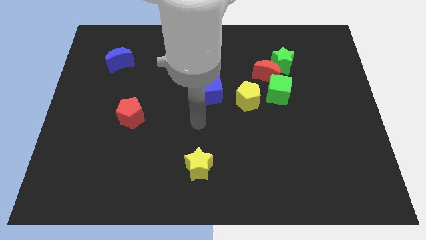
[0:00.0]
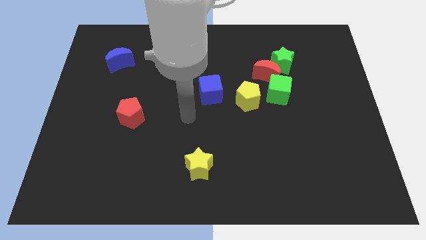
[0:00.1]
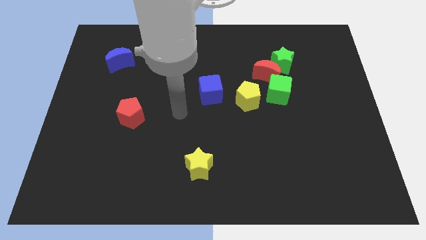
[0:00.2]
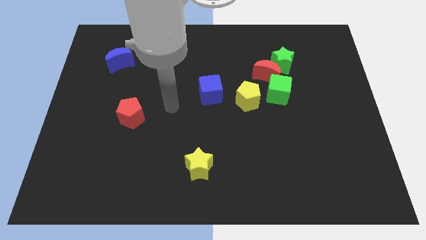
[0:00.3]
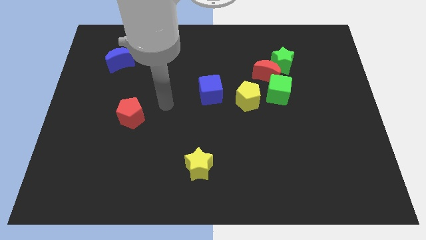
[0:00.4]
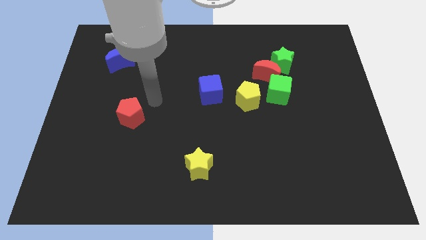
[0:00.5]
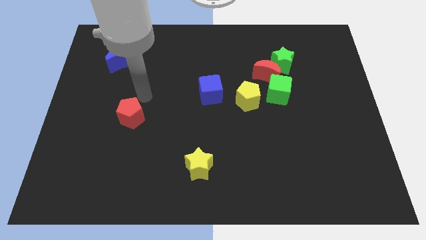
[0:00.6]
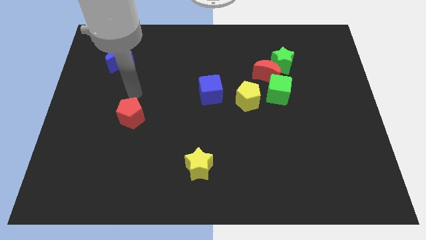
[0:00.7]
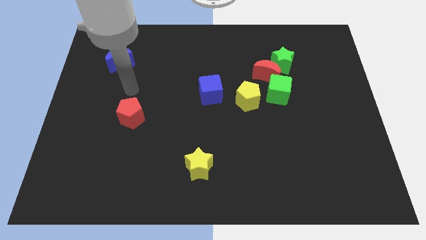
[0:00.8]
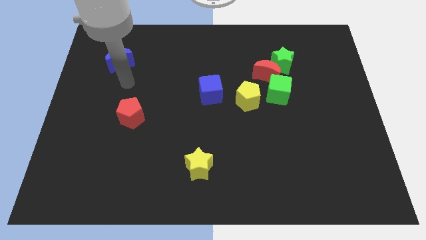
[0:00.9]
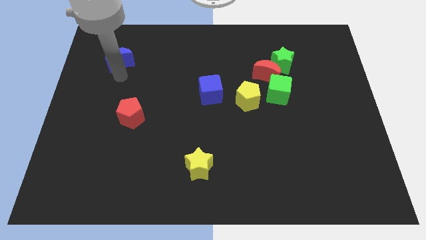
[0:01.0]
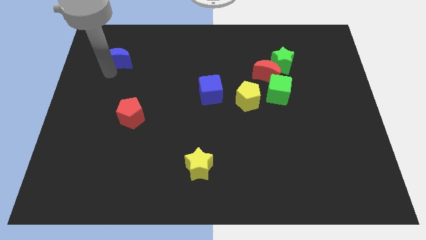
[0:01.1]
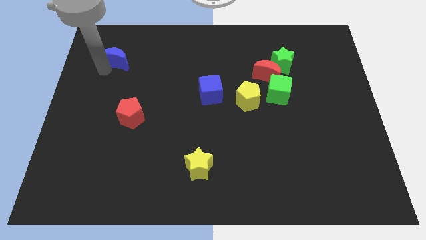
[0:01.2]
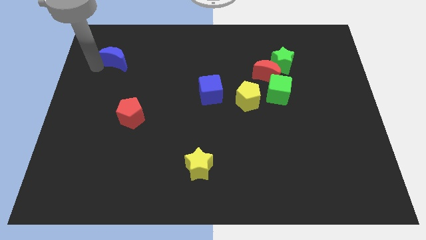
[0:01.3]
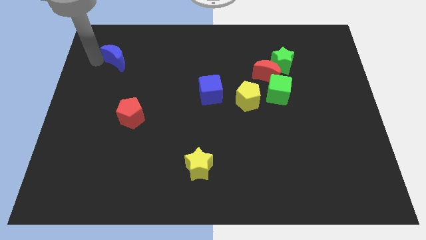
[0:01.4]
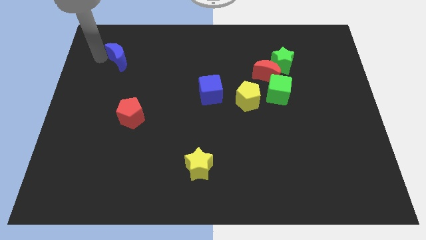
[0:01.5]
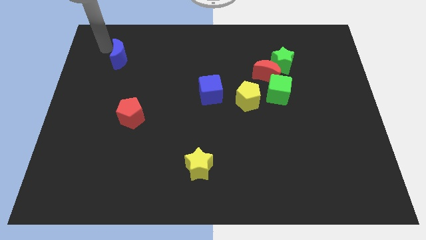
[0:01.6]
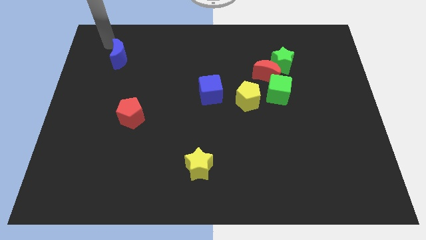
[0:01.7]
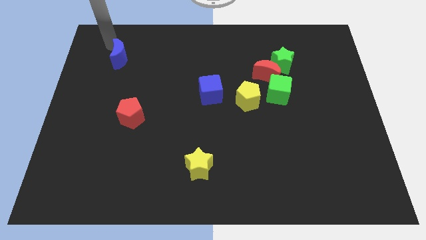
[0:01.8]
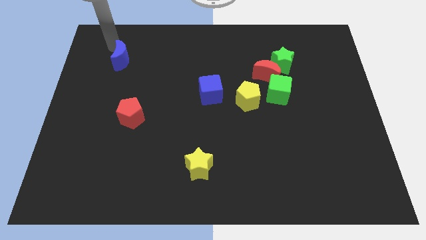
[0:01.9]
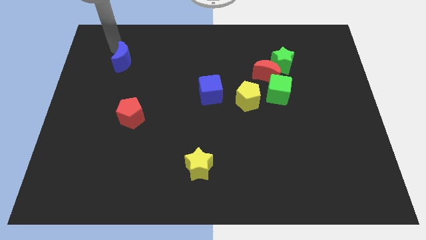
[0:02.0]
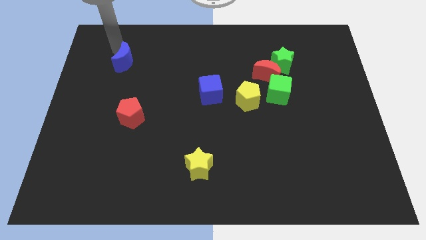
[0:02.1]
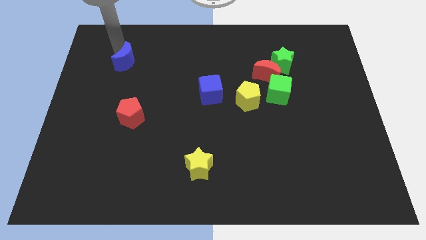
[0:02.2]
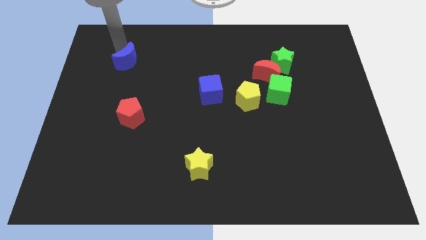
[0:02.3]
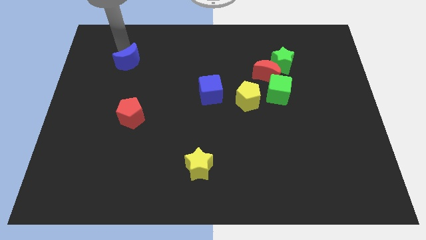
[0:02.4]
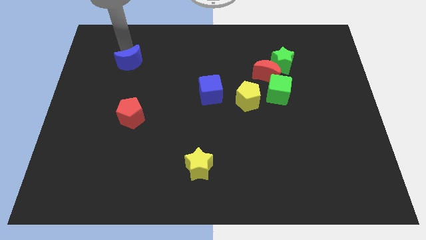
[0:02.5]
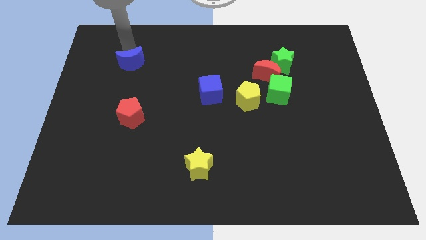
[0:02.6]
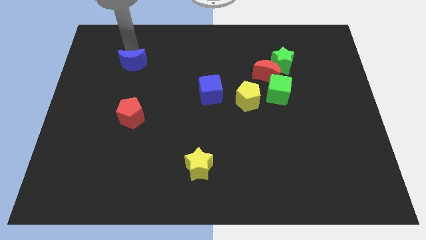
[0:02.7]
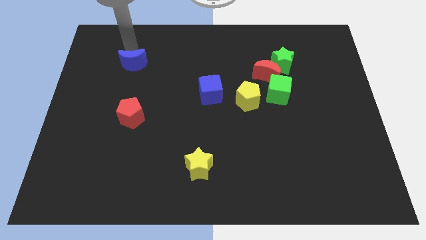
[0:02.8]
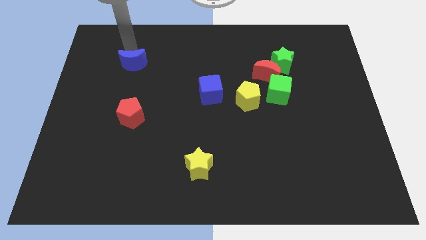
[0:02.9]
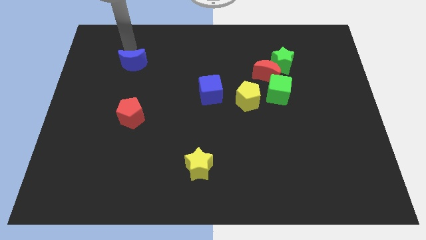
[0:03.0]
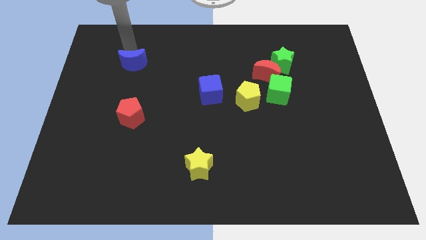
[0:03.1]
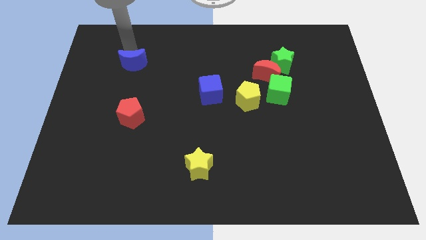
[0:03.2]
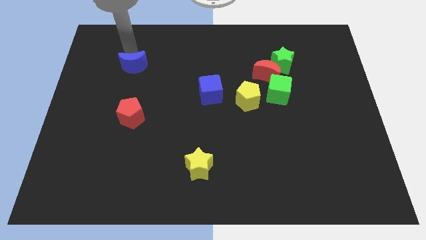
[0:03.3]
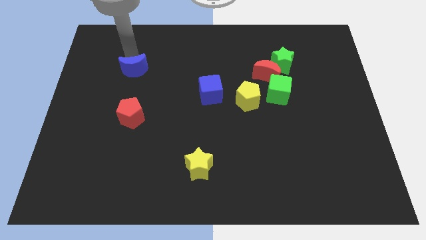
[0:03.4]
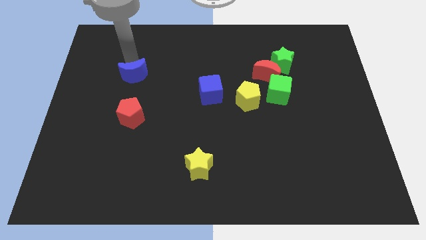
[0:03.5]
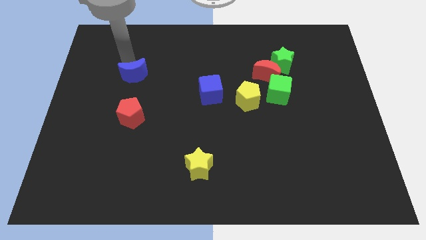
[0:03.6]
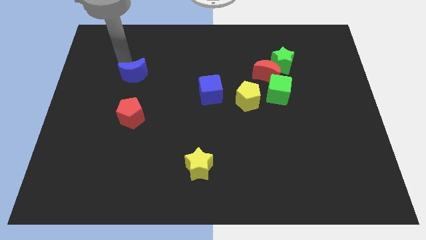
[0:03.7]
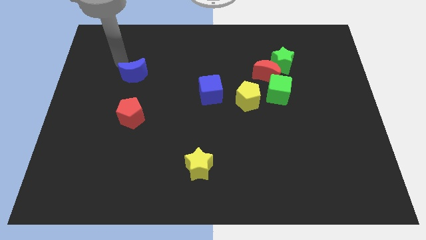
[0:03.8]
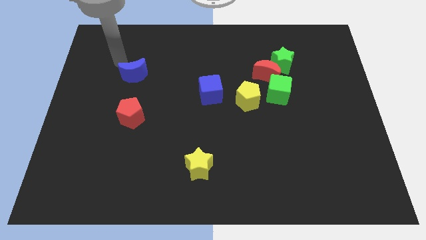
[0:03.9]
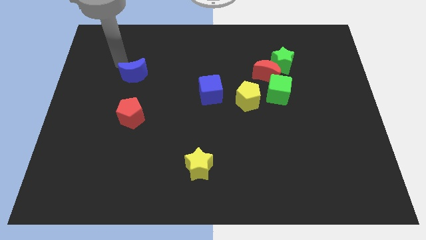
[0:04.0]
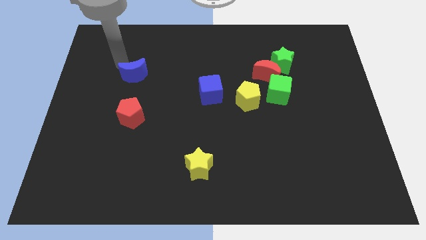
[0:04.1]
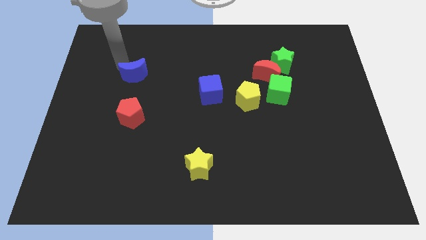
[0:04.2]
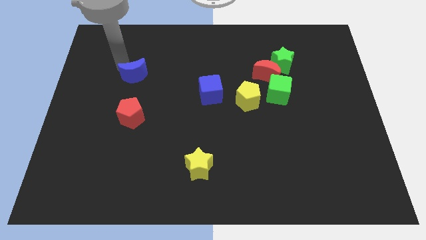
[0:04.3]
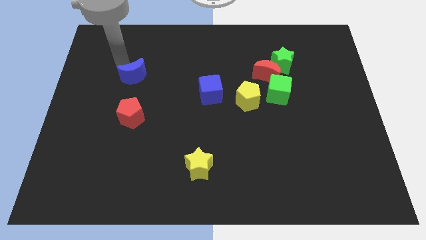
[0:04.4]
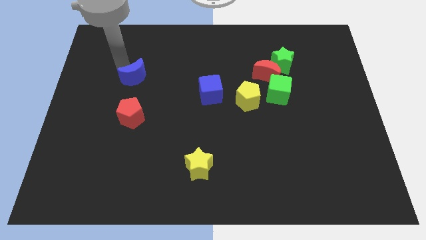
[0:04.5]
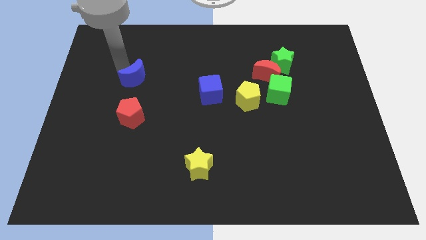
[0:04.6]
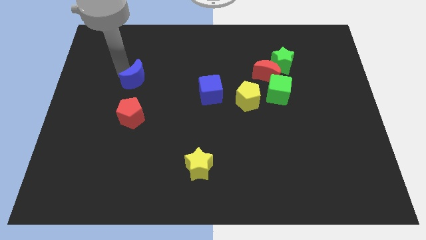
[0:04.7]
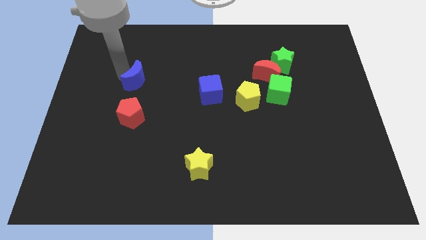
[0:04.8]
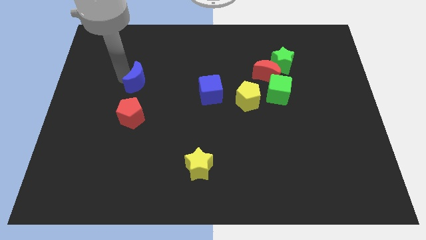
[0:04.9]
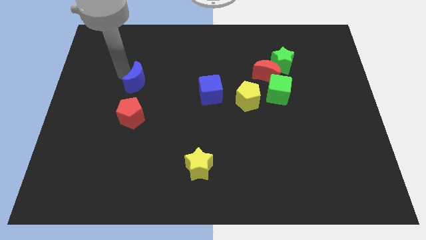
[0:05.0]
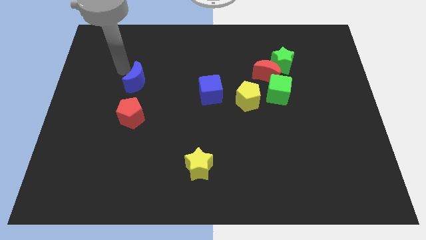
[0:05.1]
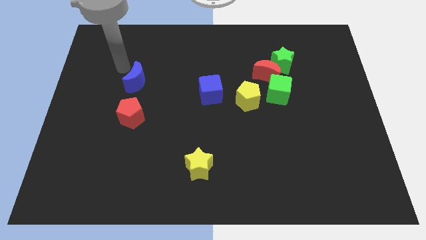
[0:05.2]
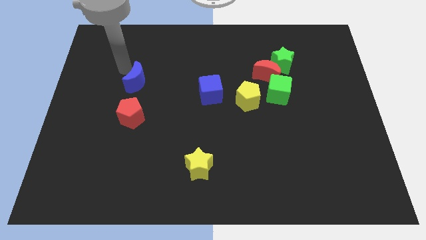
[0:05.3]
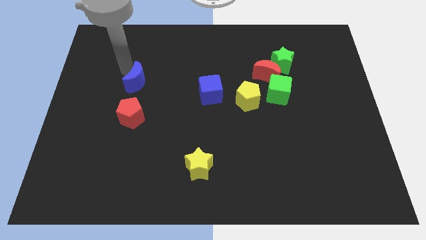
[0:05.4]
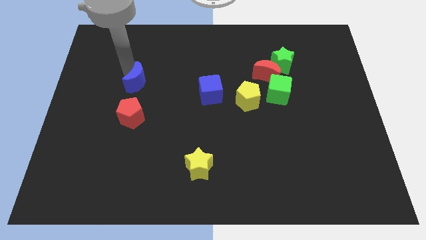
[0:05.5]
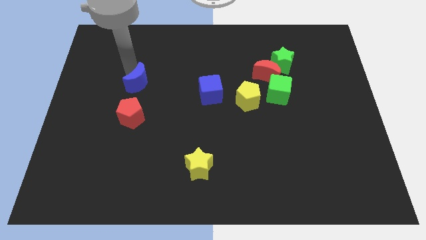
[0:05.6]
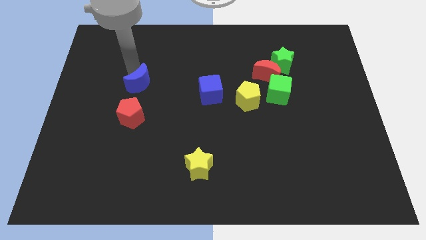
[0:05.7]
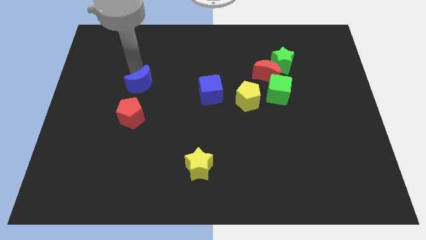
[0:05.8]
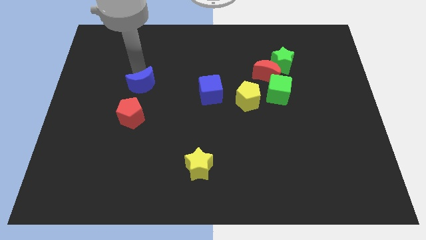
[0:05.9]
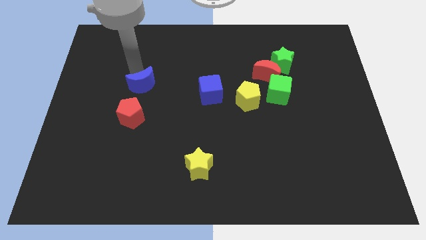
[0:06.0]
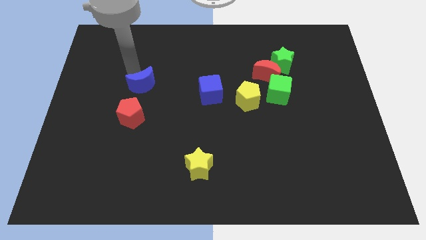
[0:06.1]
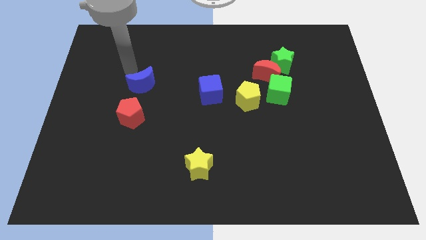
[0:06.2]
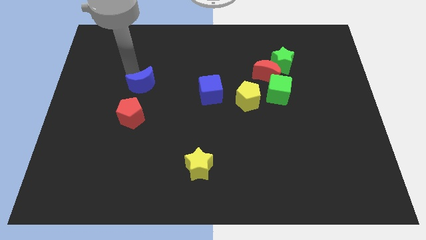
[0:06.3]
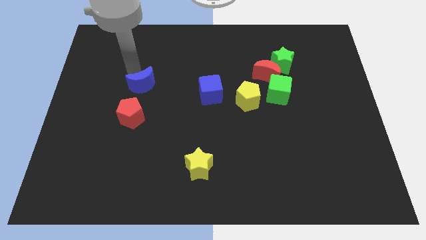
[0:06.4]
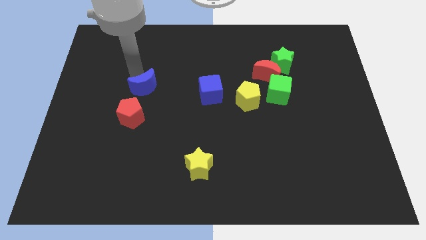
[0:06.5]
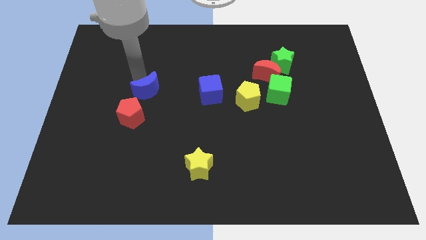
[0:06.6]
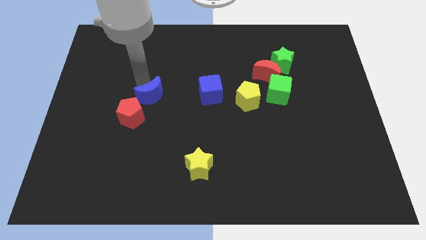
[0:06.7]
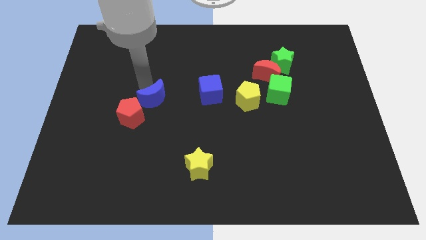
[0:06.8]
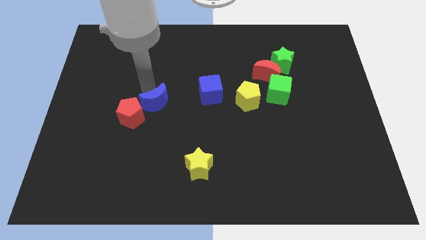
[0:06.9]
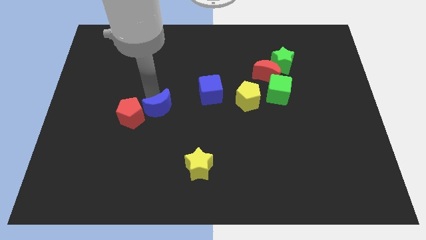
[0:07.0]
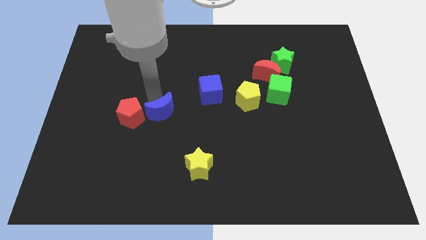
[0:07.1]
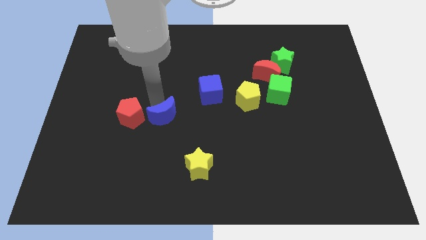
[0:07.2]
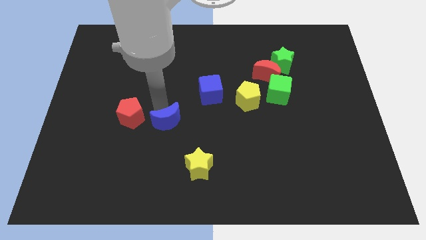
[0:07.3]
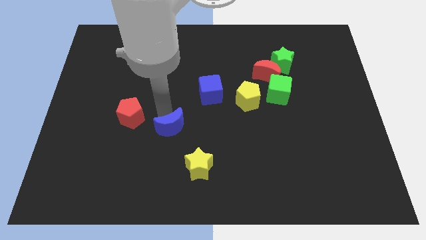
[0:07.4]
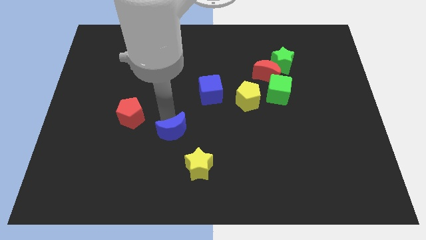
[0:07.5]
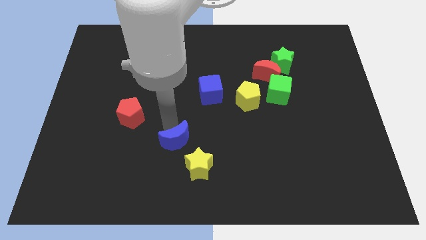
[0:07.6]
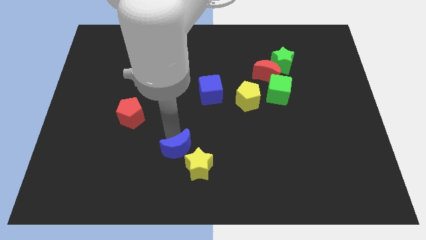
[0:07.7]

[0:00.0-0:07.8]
put the blue moon towards the yellow star

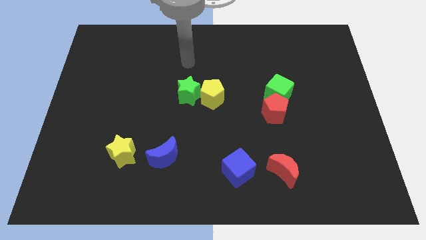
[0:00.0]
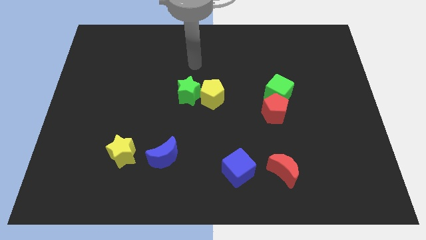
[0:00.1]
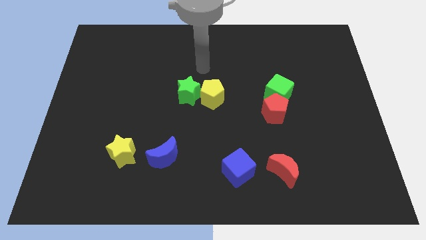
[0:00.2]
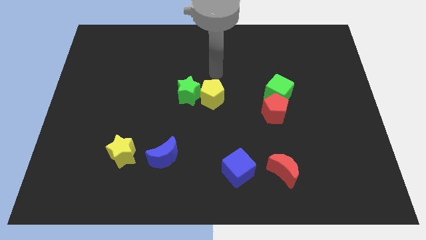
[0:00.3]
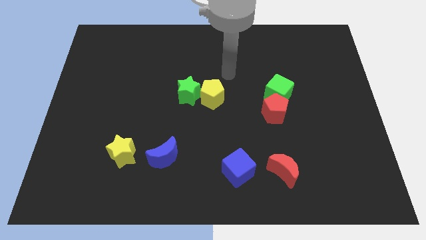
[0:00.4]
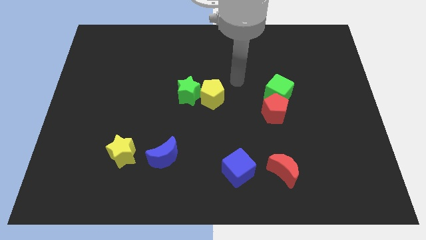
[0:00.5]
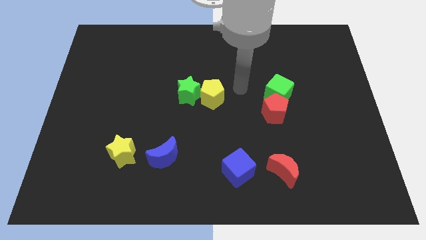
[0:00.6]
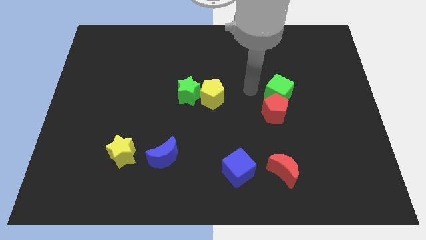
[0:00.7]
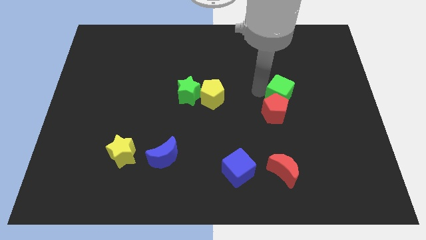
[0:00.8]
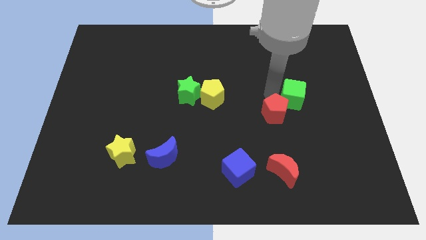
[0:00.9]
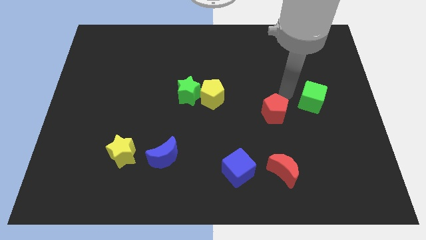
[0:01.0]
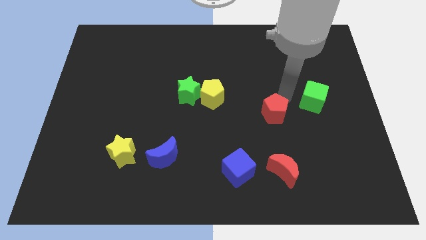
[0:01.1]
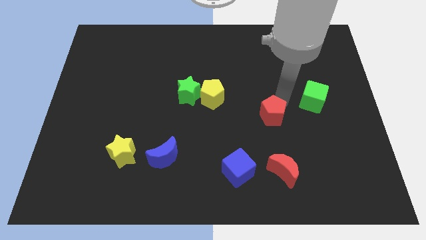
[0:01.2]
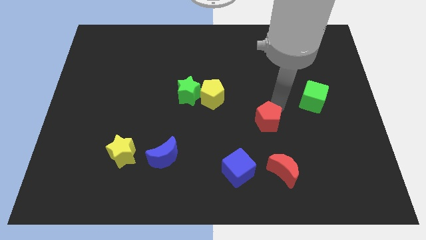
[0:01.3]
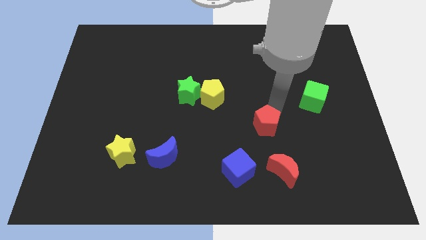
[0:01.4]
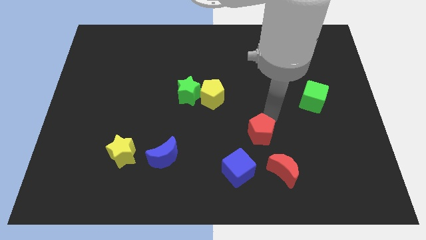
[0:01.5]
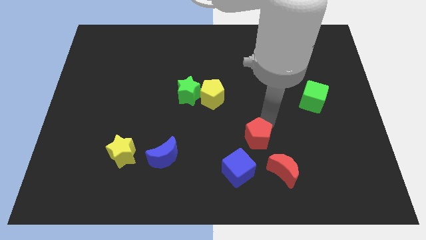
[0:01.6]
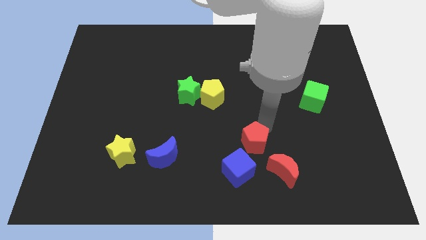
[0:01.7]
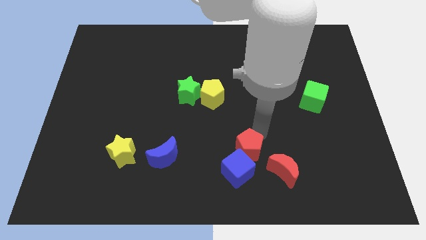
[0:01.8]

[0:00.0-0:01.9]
slide the red pentagon to the blue cube
